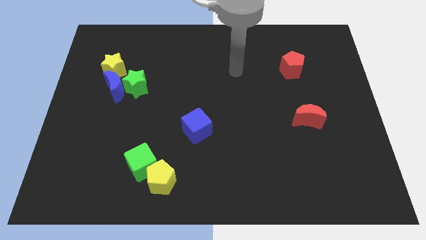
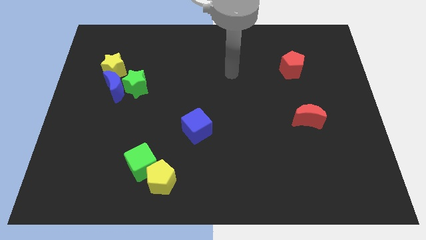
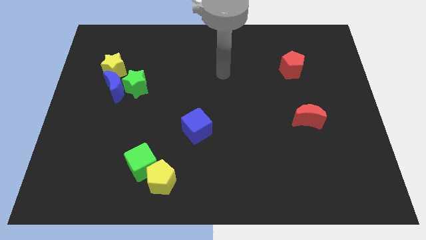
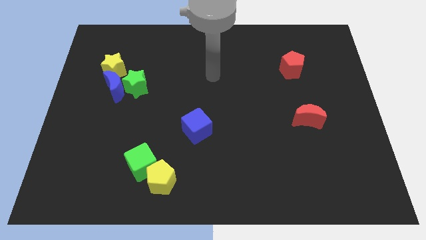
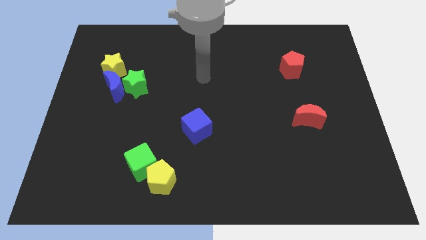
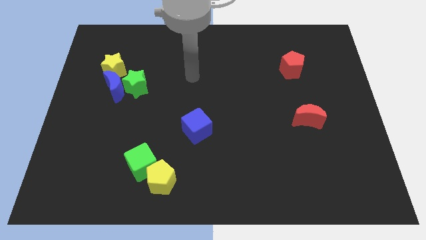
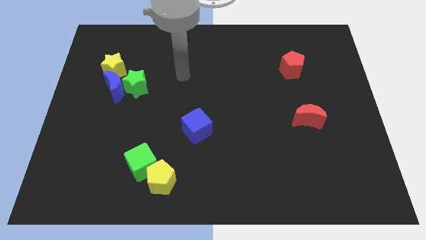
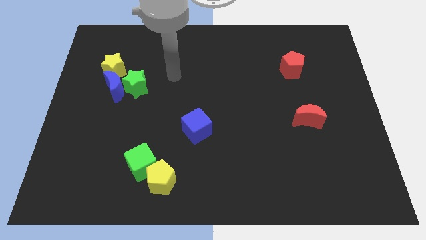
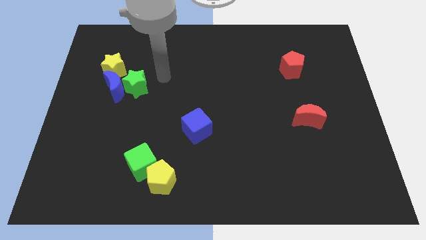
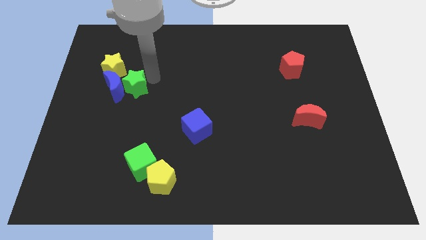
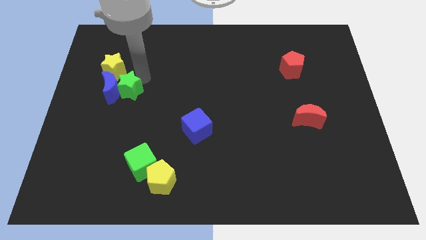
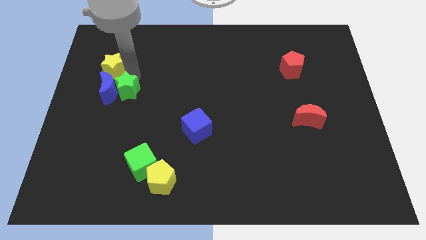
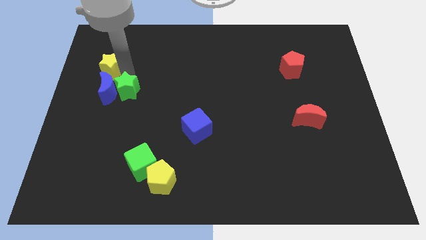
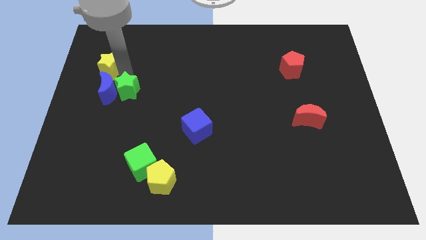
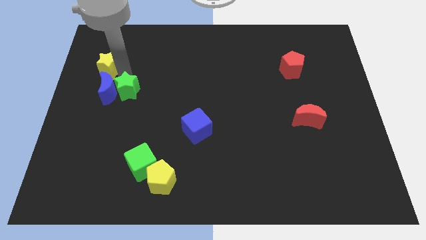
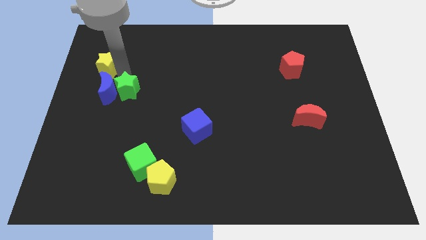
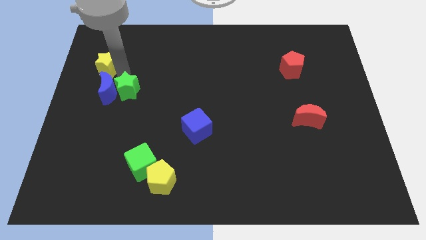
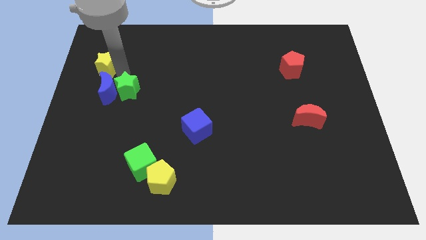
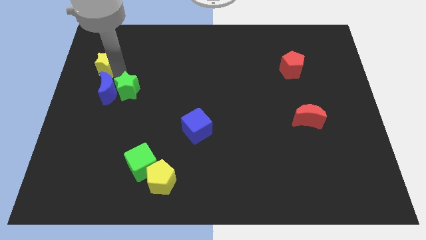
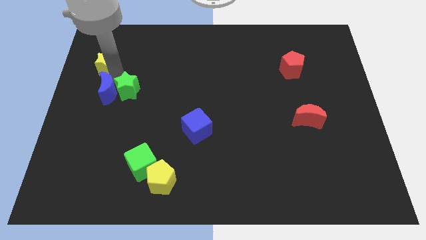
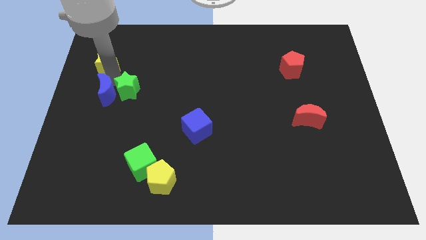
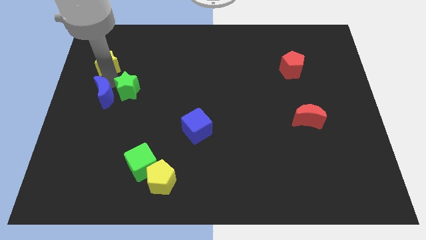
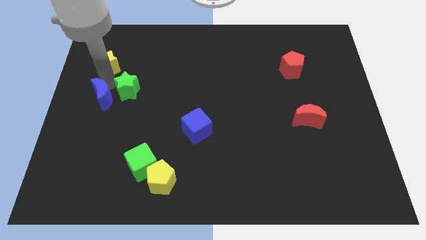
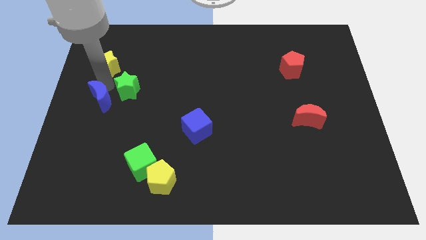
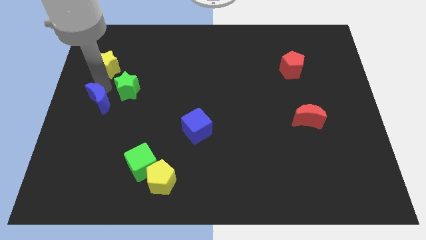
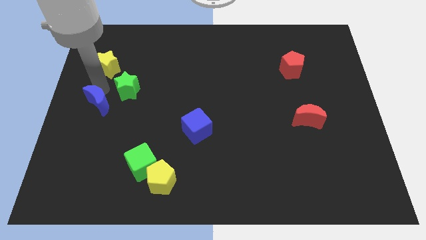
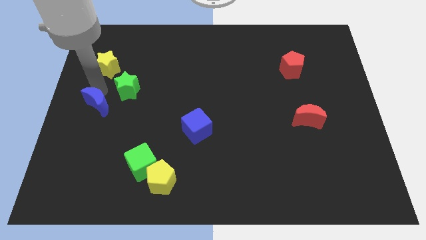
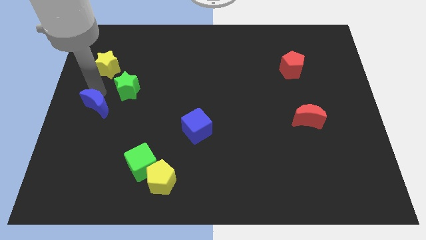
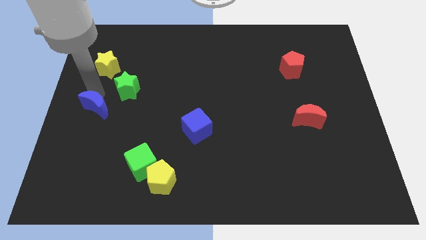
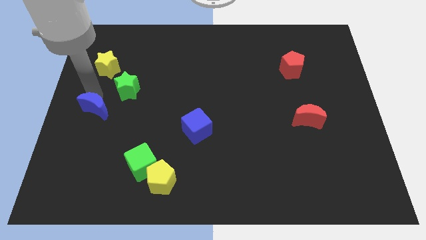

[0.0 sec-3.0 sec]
separate the blue moon from the green star and yellow star

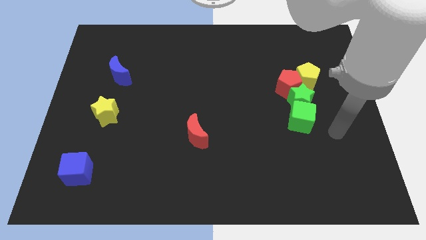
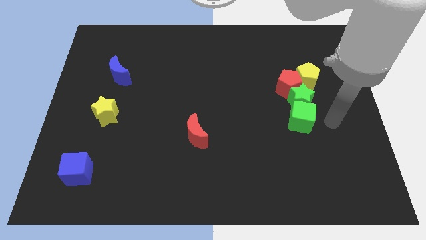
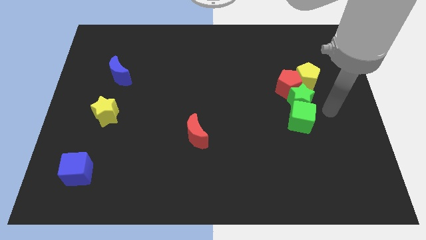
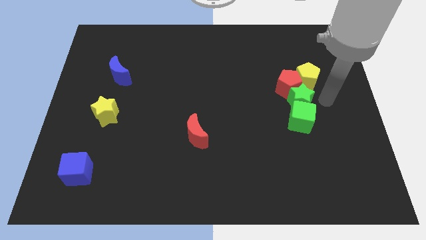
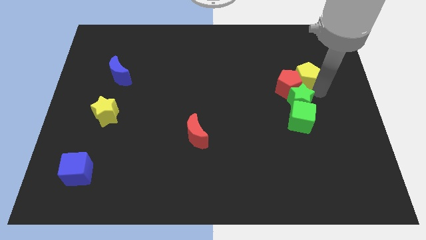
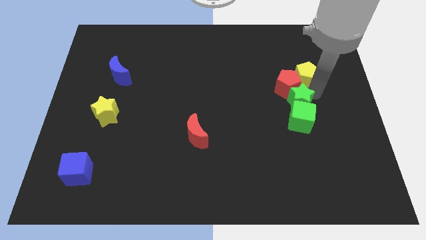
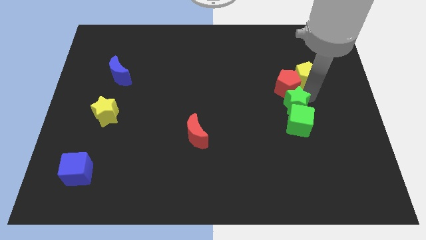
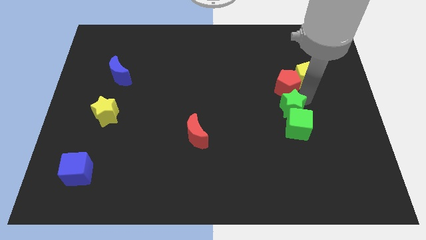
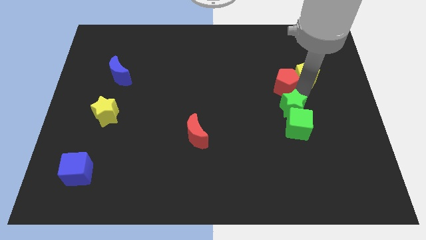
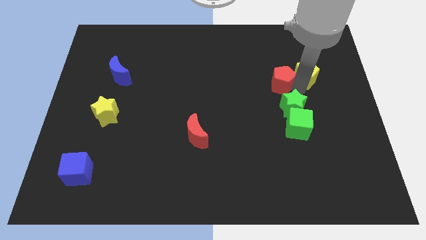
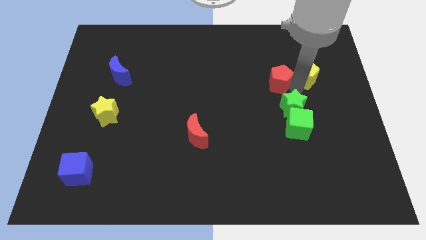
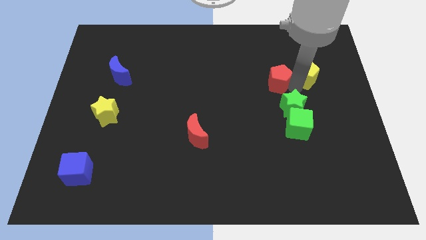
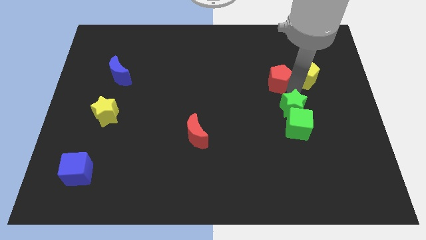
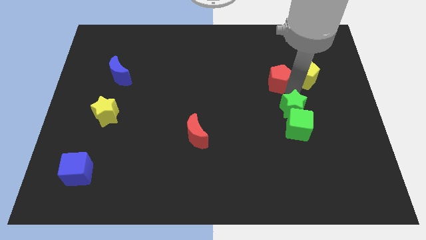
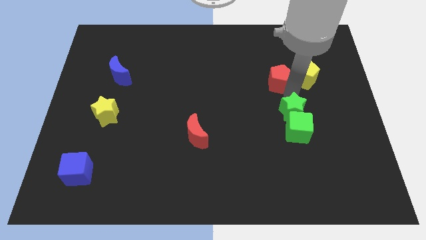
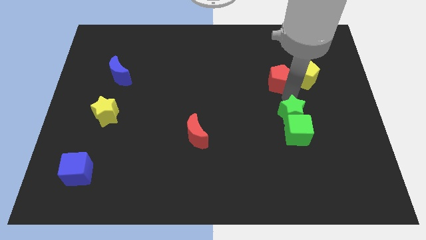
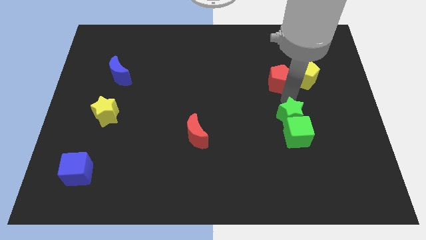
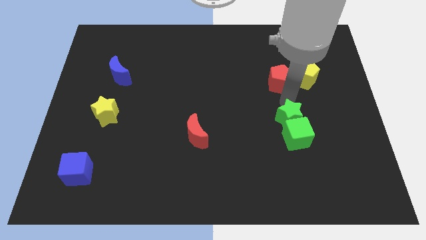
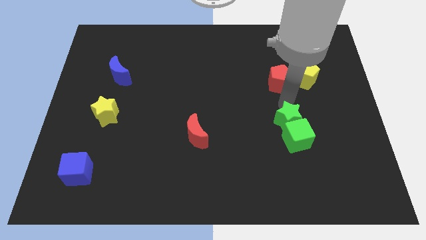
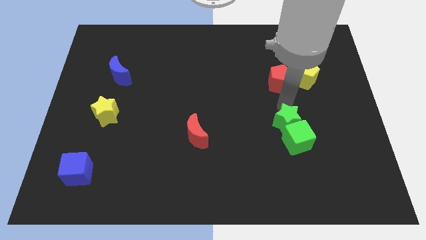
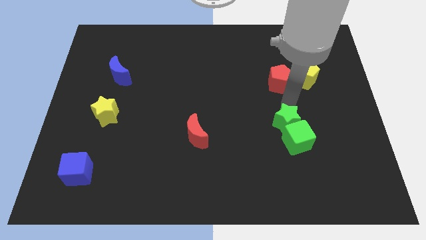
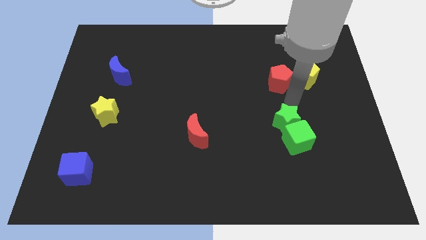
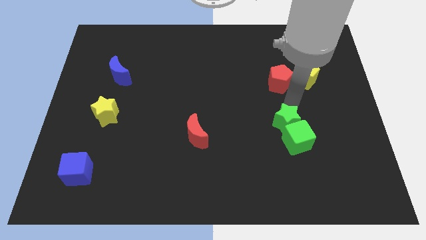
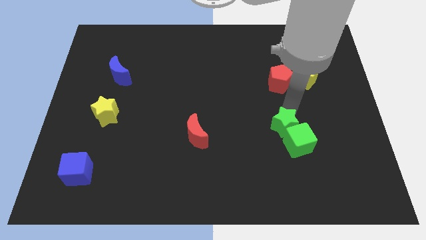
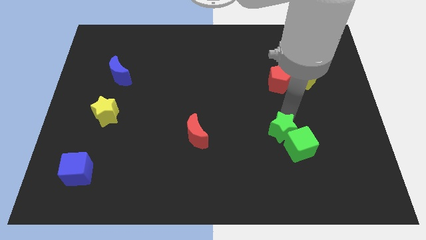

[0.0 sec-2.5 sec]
pull the green star apart from the clump

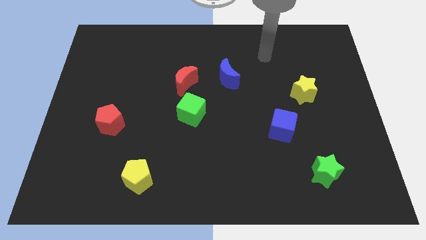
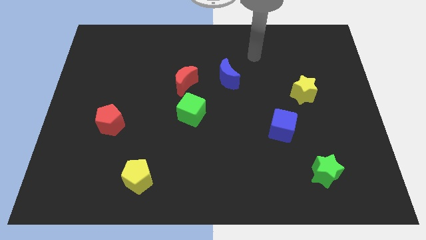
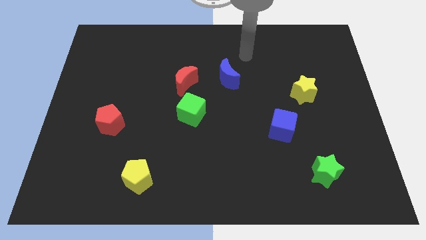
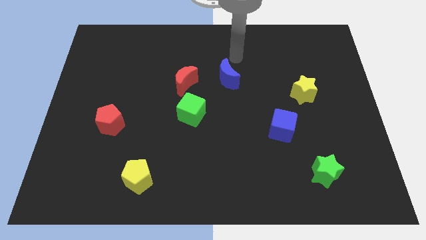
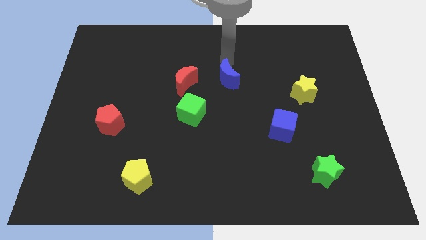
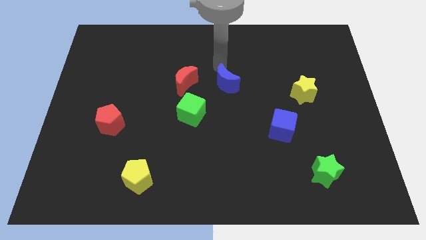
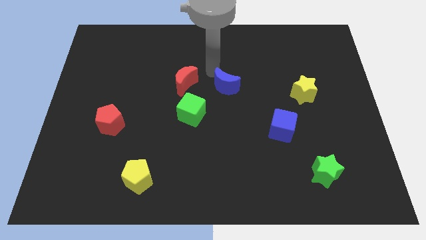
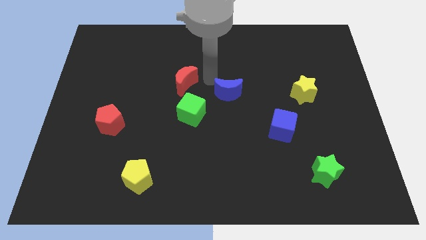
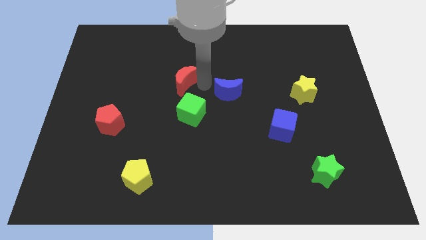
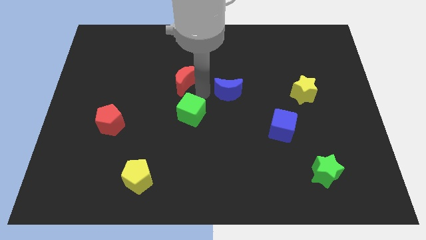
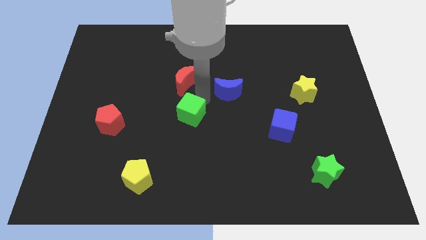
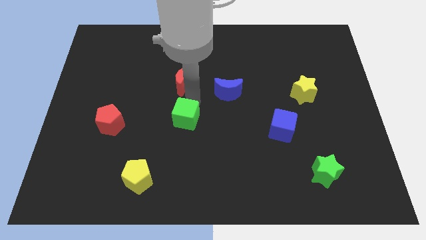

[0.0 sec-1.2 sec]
pull the red moon apart from the green cube

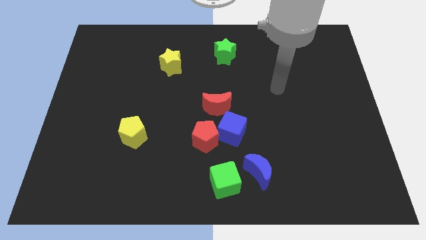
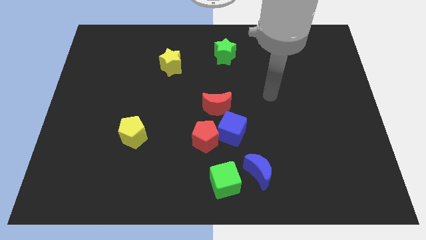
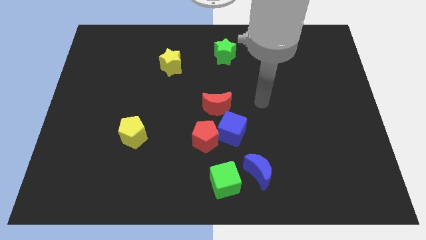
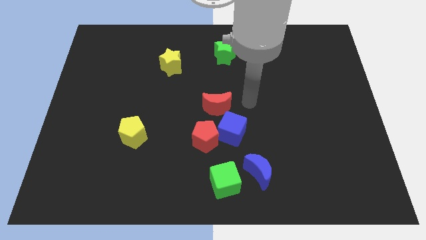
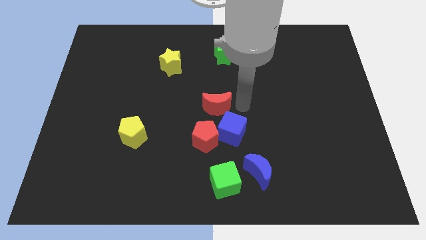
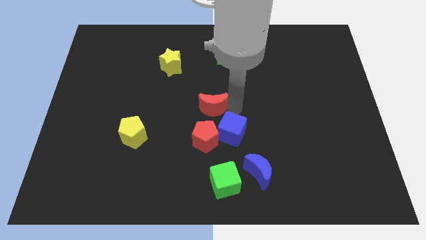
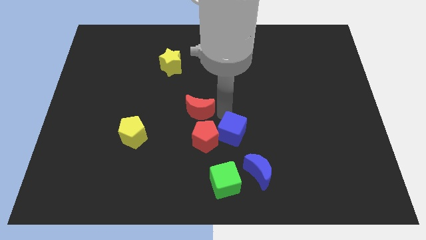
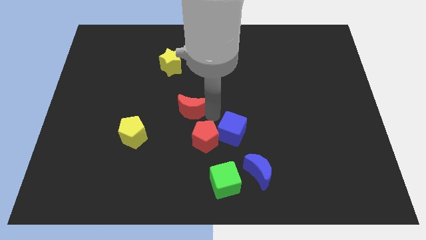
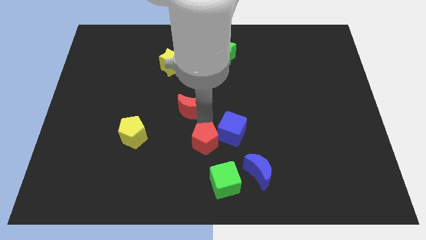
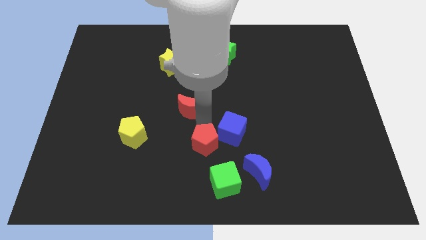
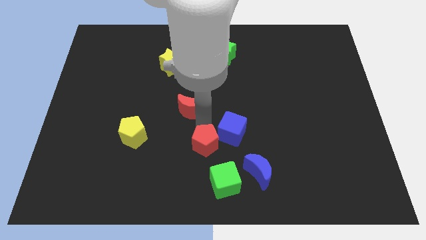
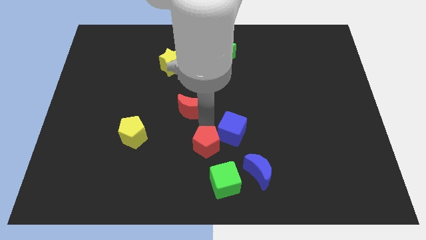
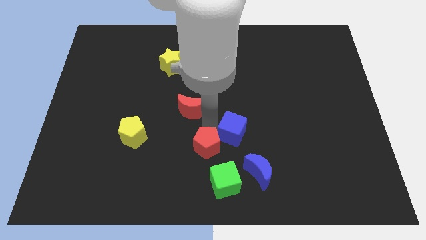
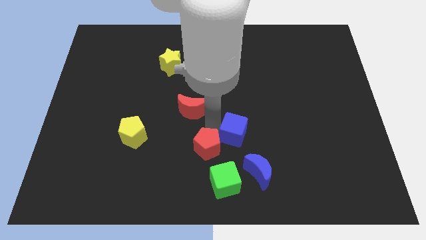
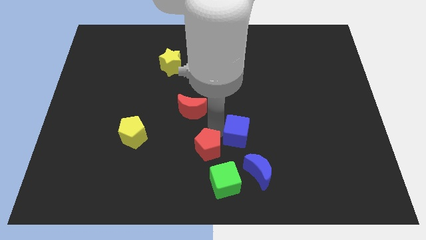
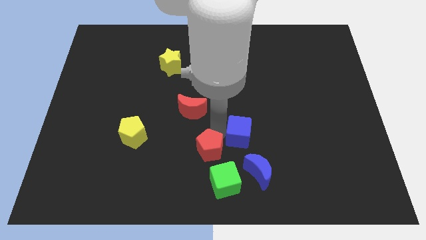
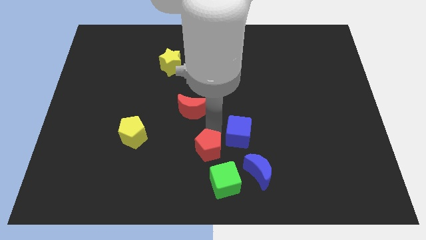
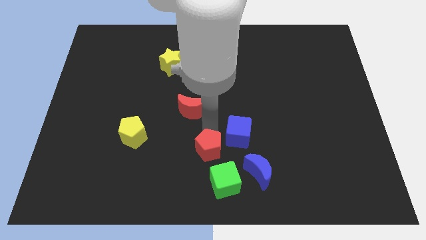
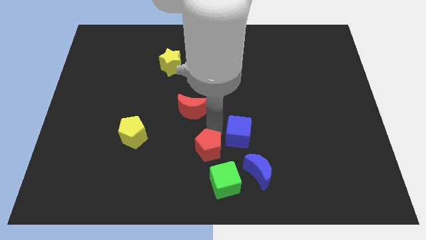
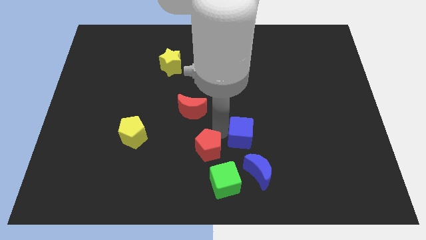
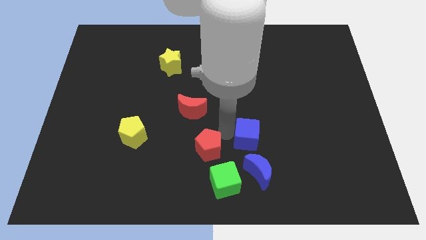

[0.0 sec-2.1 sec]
pull the blue cube apart from the red pentagon and red moon

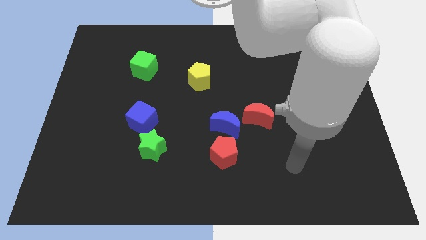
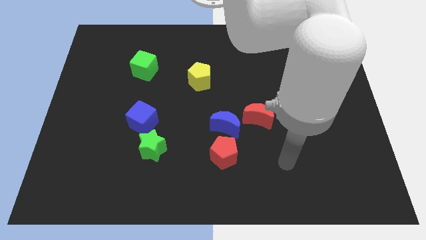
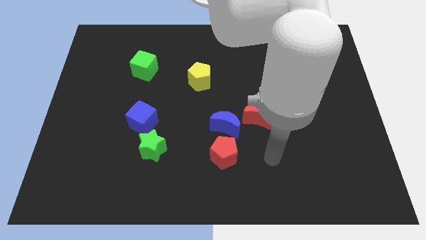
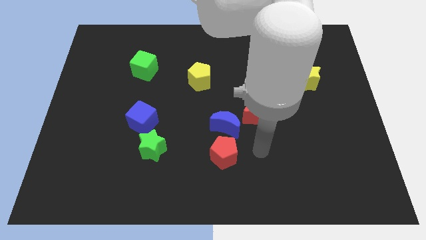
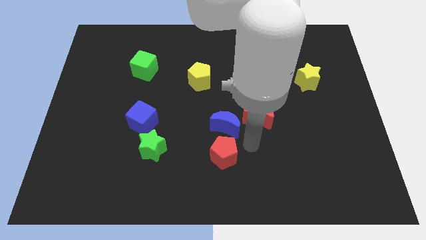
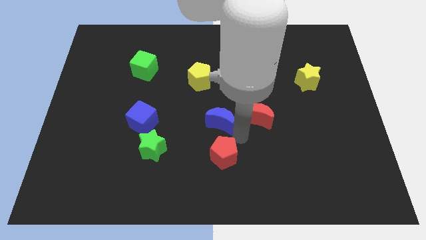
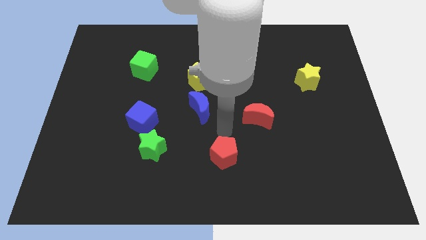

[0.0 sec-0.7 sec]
pull the red pentagon apart from the blue moon
